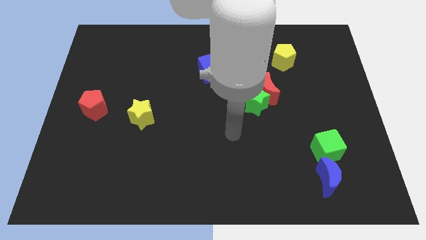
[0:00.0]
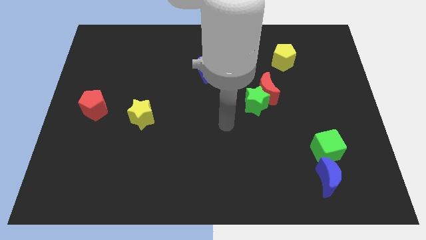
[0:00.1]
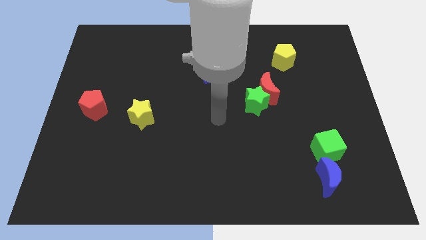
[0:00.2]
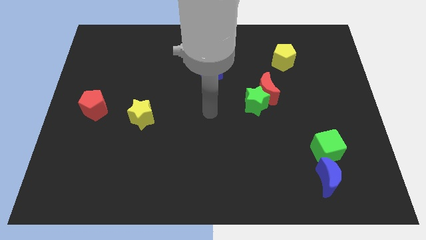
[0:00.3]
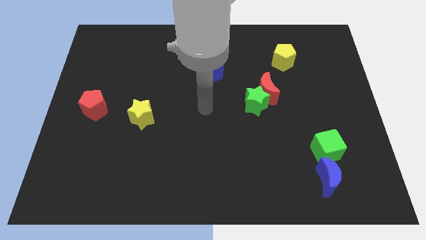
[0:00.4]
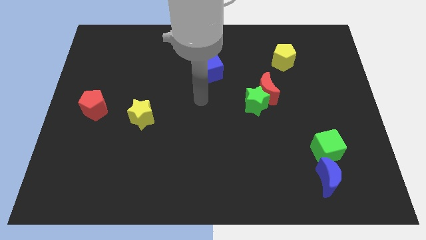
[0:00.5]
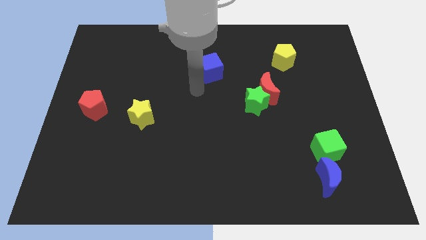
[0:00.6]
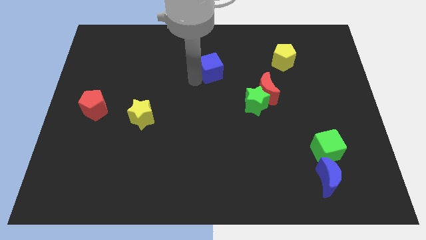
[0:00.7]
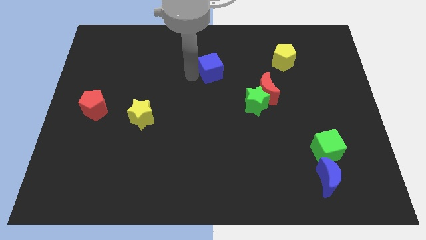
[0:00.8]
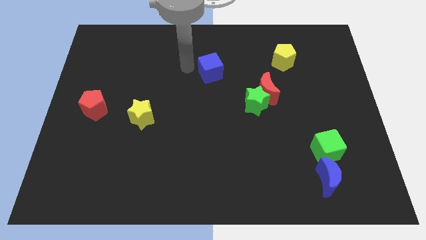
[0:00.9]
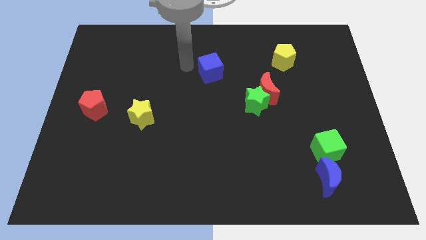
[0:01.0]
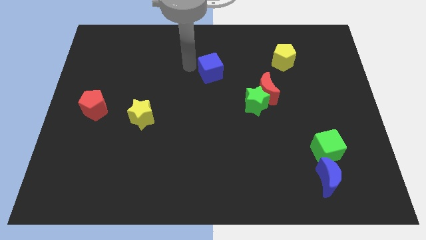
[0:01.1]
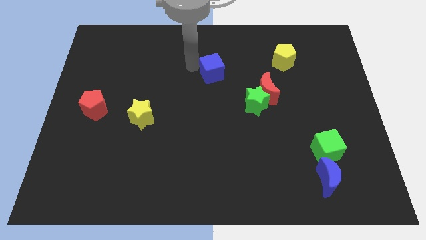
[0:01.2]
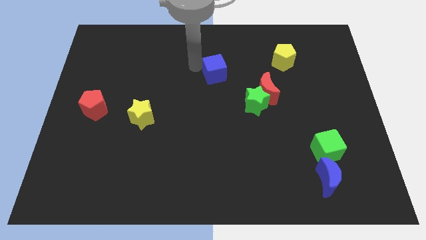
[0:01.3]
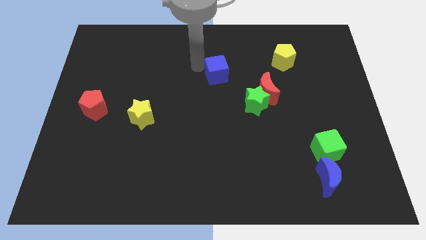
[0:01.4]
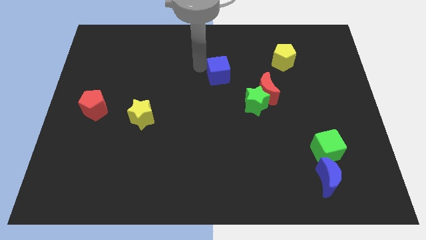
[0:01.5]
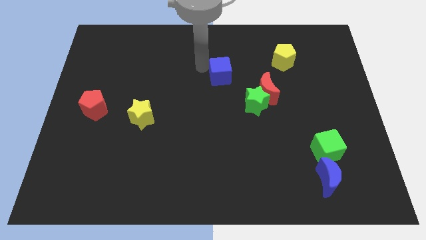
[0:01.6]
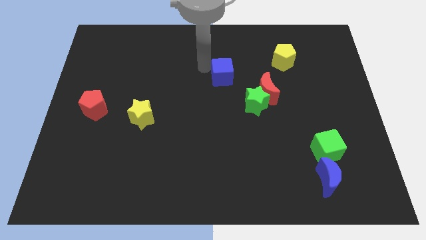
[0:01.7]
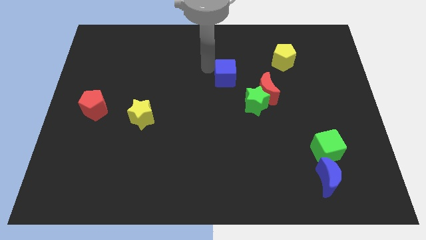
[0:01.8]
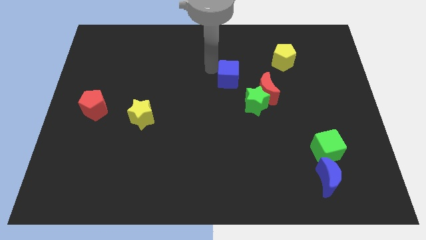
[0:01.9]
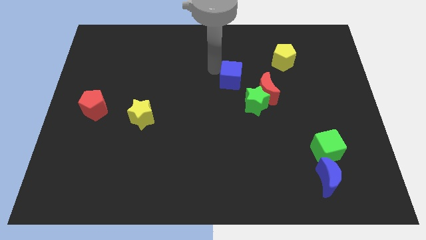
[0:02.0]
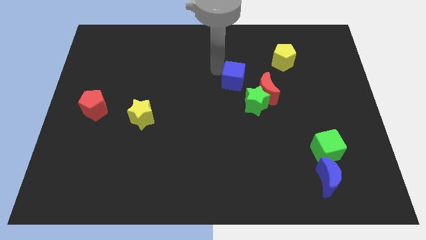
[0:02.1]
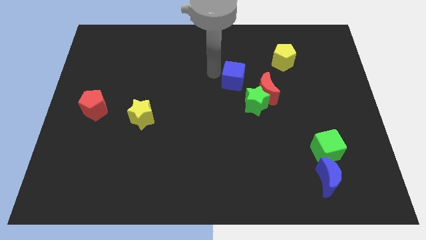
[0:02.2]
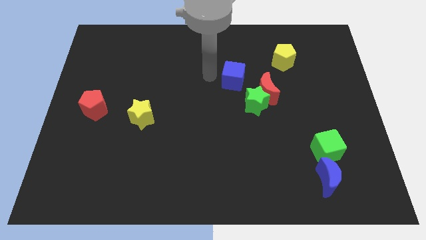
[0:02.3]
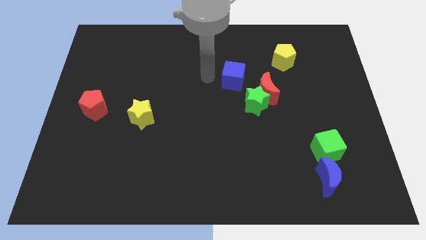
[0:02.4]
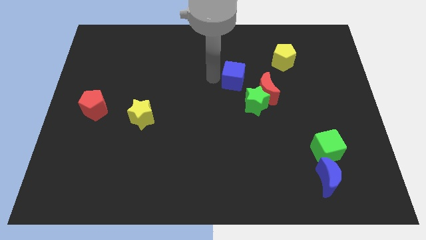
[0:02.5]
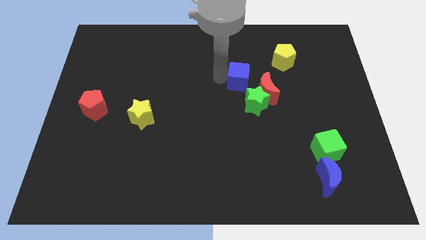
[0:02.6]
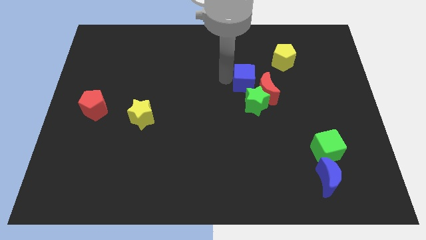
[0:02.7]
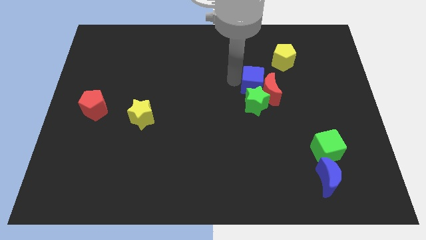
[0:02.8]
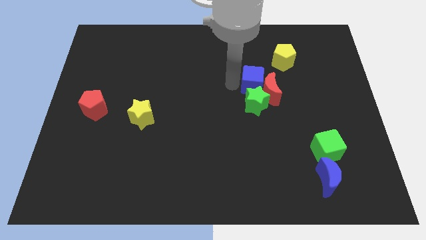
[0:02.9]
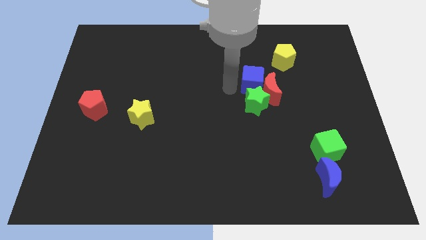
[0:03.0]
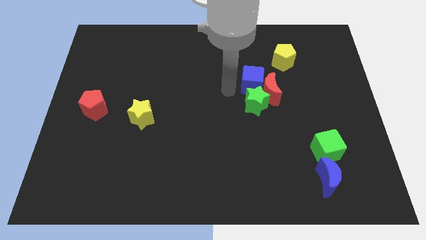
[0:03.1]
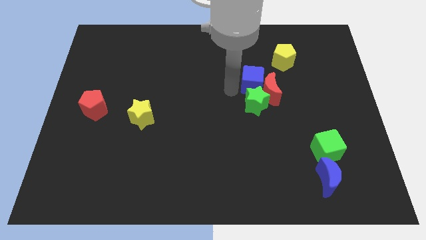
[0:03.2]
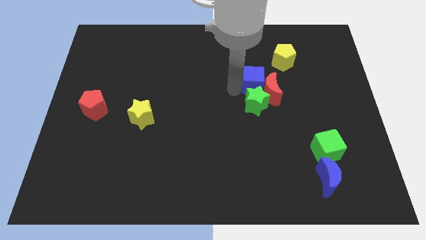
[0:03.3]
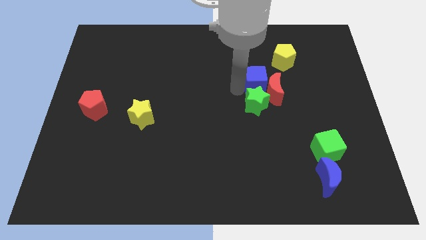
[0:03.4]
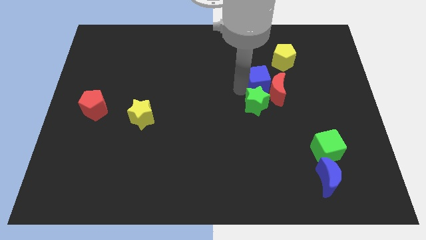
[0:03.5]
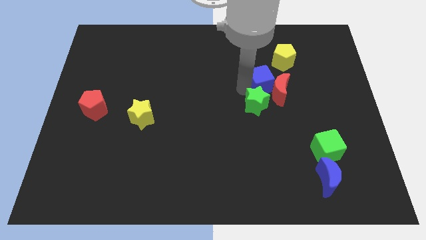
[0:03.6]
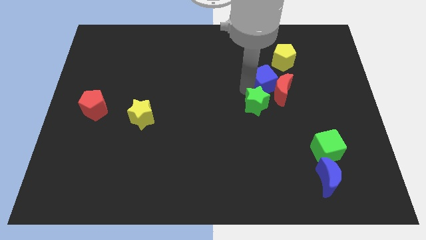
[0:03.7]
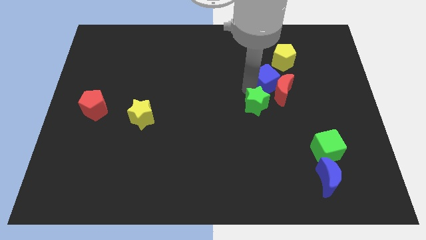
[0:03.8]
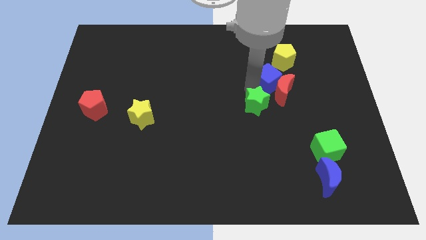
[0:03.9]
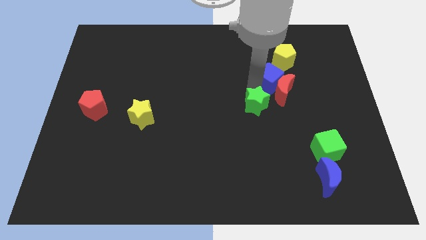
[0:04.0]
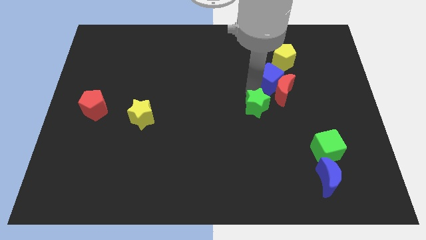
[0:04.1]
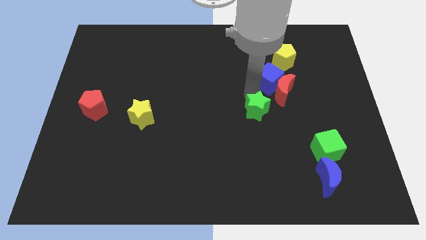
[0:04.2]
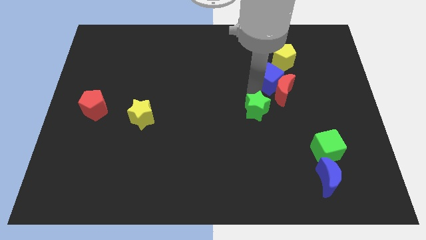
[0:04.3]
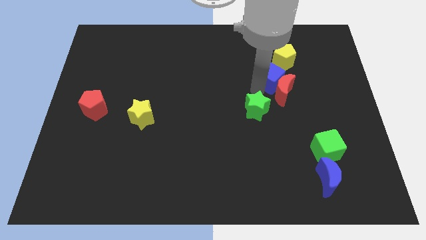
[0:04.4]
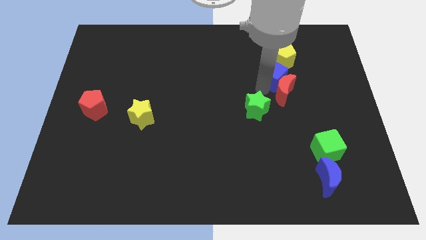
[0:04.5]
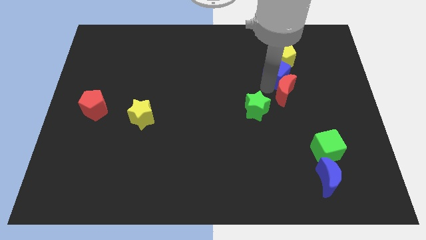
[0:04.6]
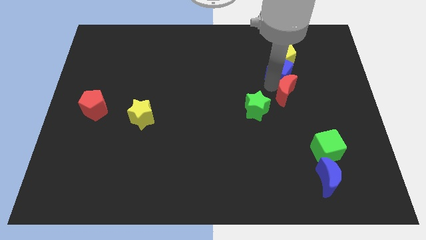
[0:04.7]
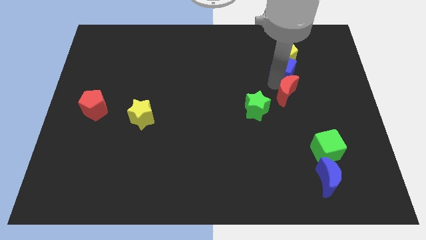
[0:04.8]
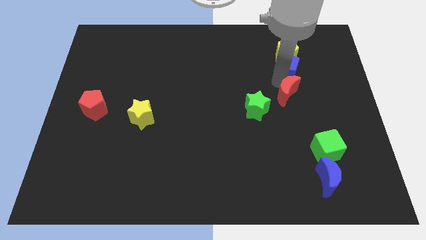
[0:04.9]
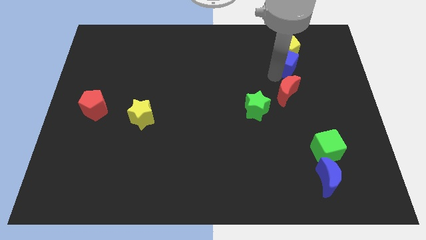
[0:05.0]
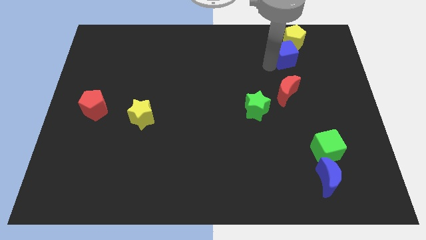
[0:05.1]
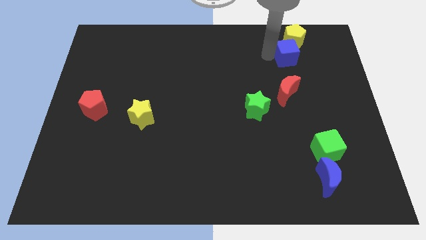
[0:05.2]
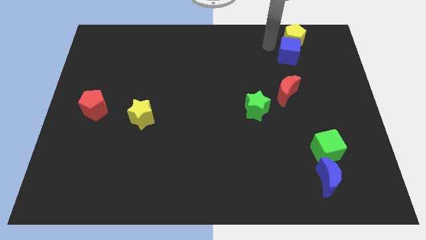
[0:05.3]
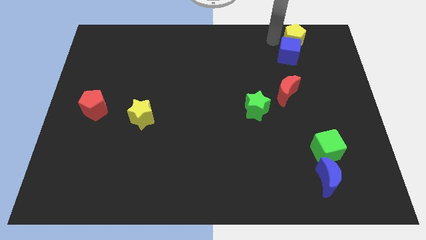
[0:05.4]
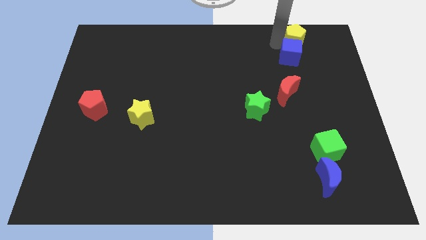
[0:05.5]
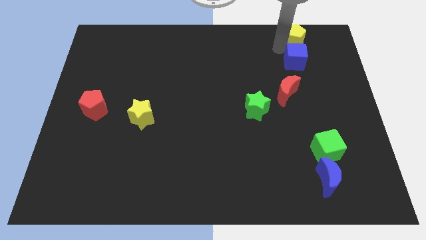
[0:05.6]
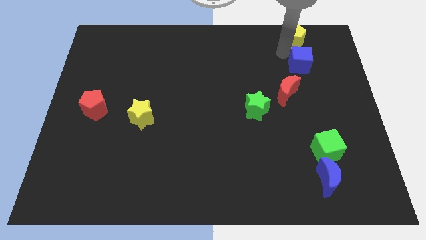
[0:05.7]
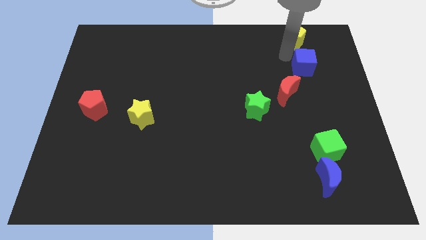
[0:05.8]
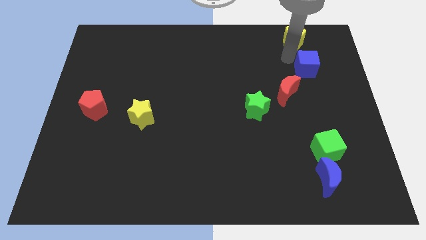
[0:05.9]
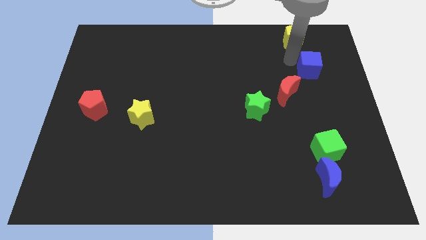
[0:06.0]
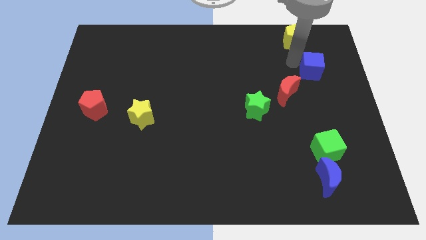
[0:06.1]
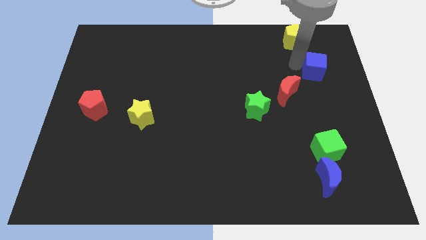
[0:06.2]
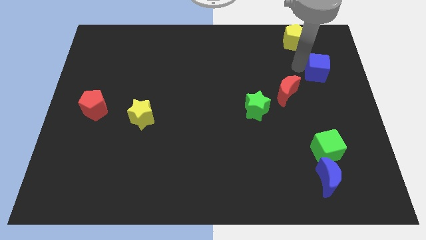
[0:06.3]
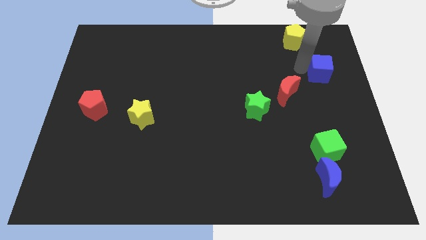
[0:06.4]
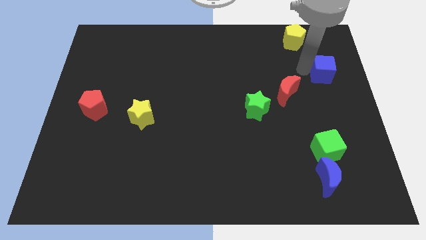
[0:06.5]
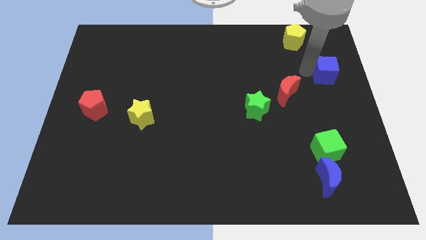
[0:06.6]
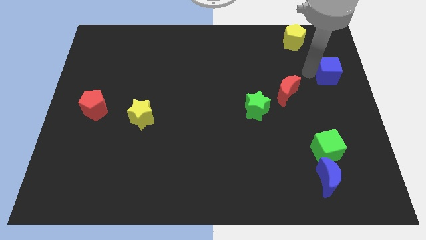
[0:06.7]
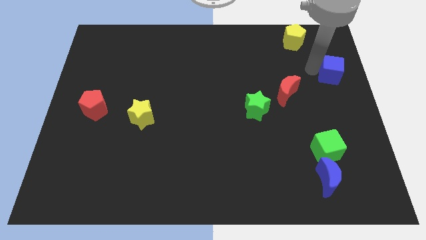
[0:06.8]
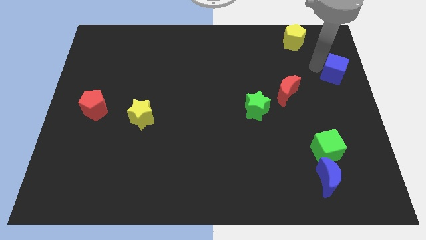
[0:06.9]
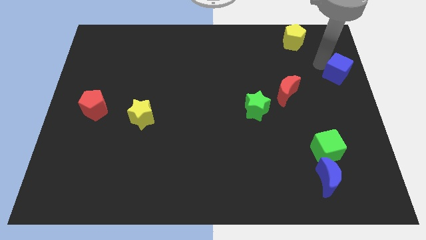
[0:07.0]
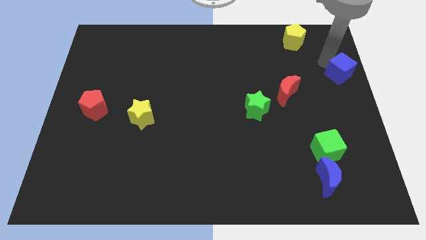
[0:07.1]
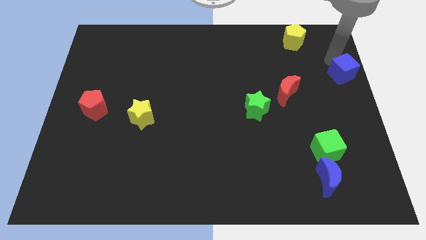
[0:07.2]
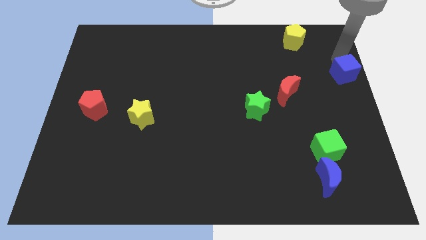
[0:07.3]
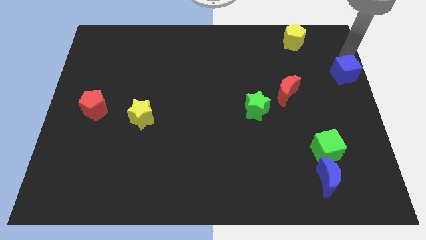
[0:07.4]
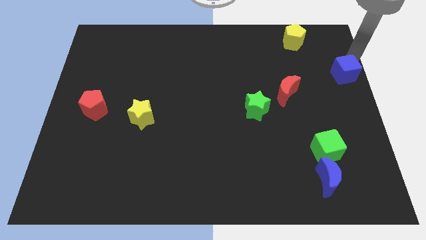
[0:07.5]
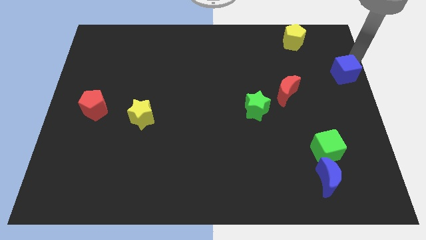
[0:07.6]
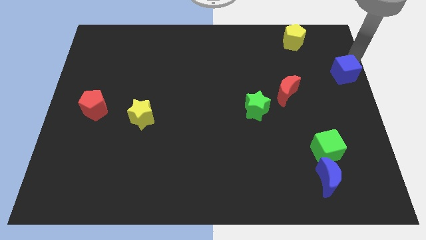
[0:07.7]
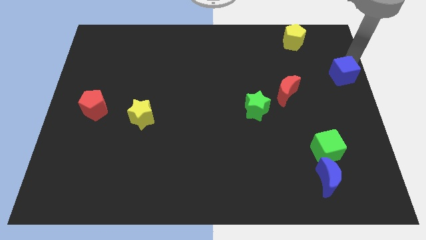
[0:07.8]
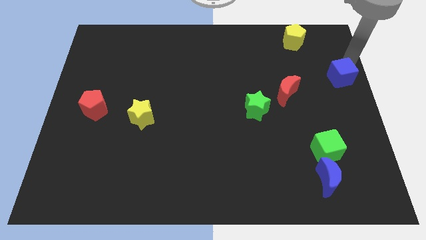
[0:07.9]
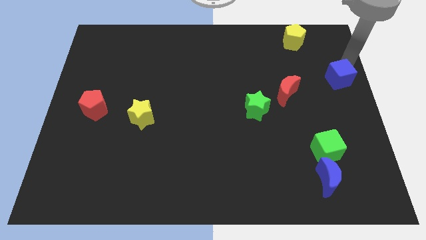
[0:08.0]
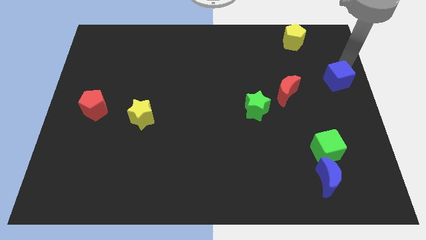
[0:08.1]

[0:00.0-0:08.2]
push the blue cube right of the red moon

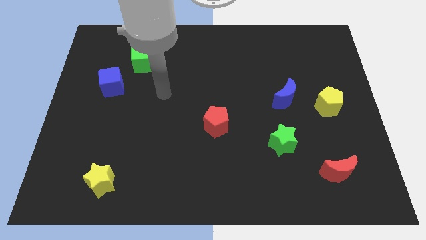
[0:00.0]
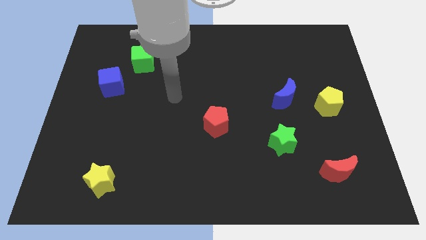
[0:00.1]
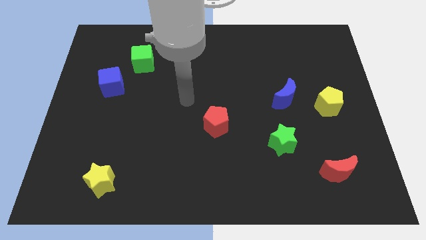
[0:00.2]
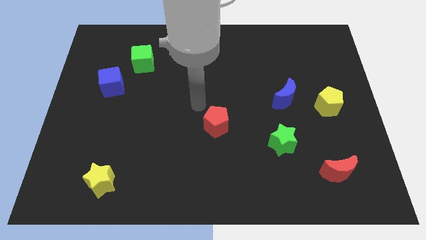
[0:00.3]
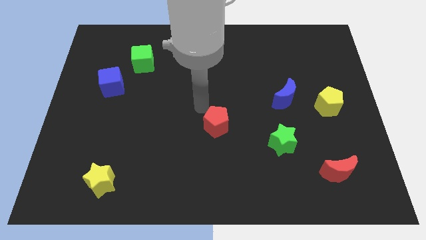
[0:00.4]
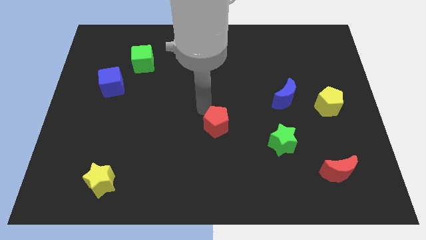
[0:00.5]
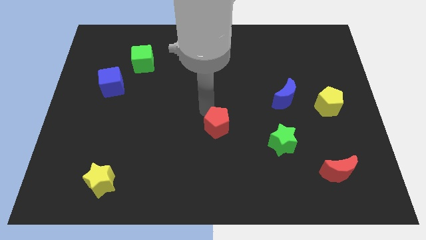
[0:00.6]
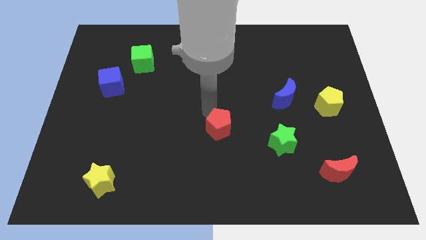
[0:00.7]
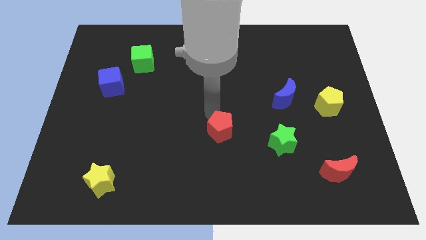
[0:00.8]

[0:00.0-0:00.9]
push the red pentagon left of the green star
